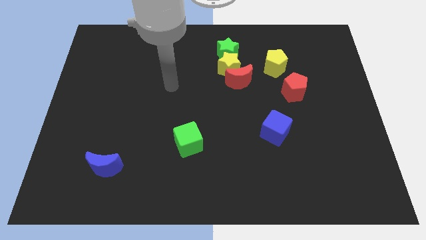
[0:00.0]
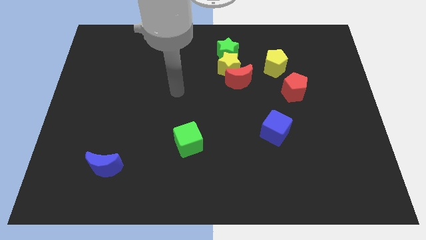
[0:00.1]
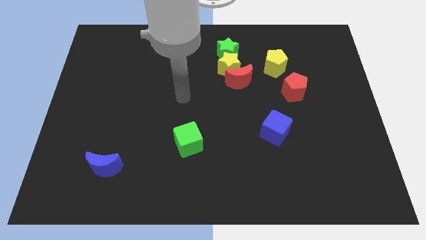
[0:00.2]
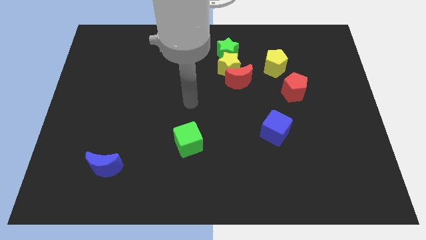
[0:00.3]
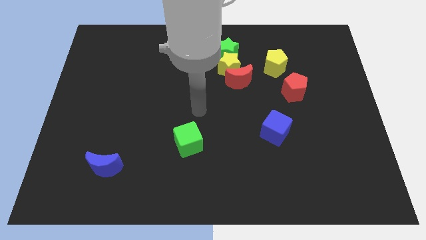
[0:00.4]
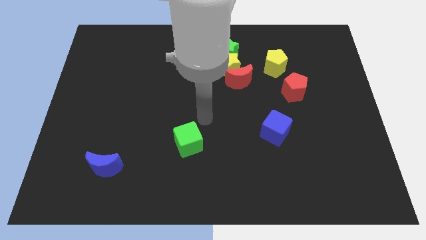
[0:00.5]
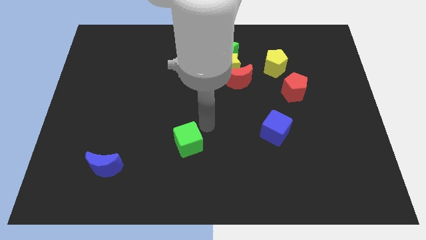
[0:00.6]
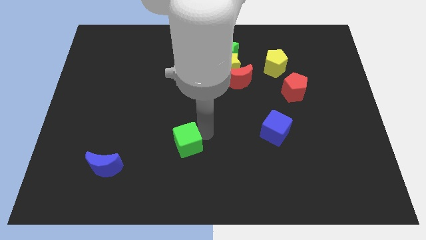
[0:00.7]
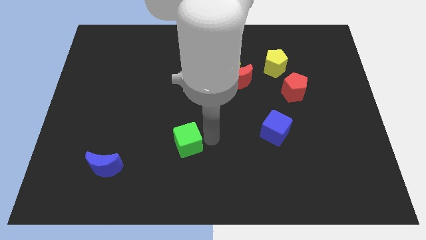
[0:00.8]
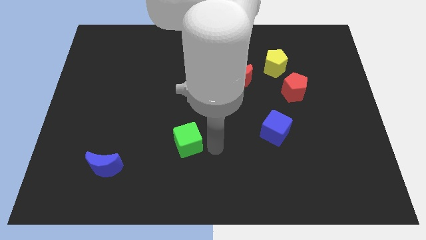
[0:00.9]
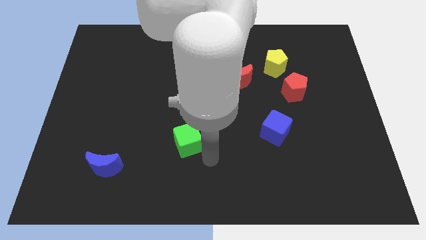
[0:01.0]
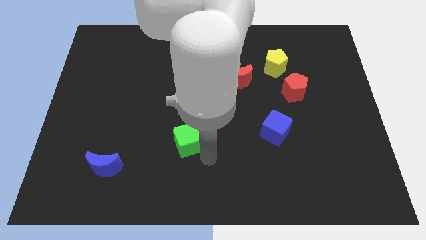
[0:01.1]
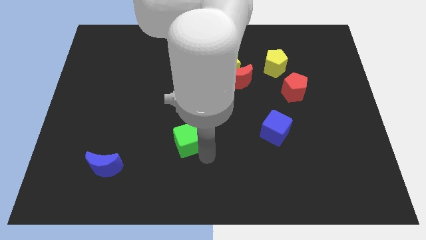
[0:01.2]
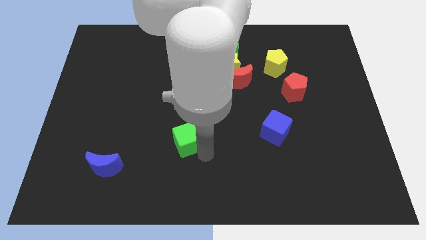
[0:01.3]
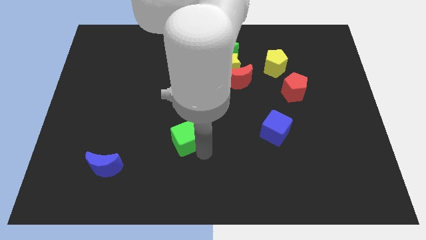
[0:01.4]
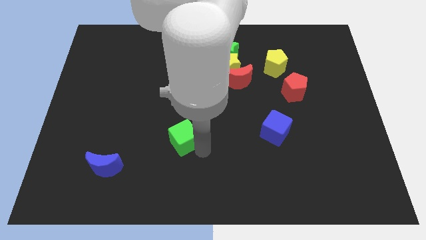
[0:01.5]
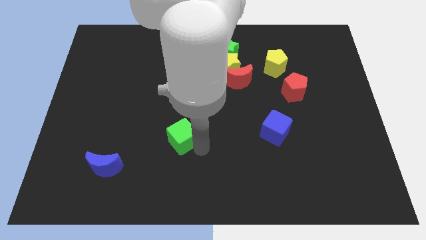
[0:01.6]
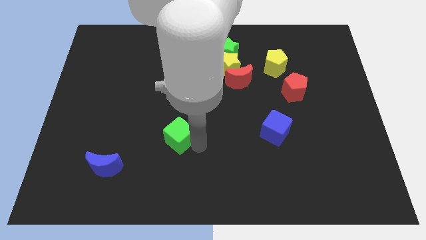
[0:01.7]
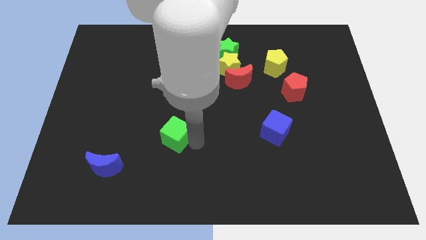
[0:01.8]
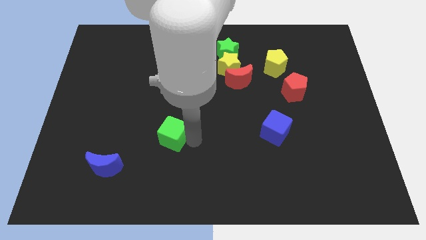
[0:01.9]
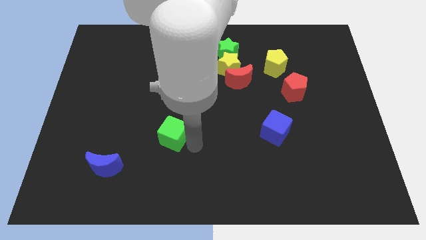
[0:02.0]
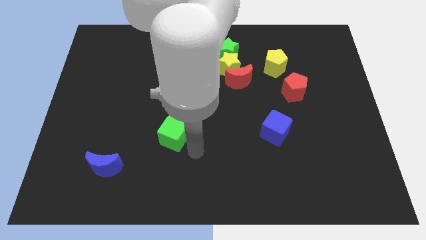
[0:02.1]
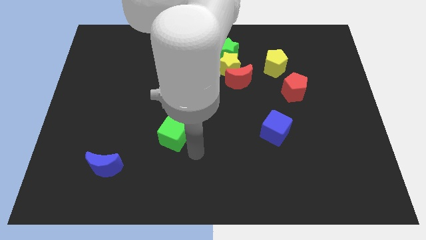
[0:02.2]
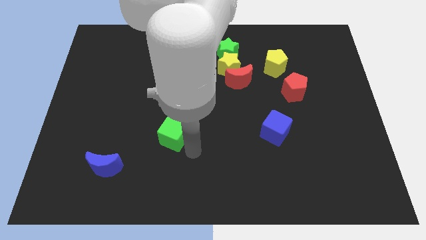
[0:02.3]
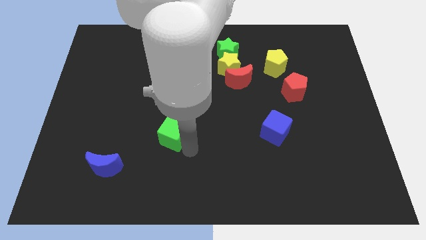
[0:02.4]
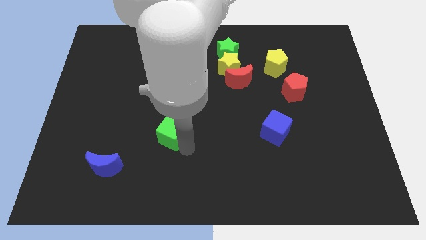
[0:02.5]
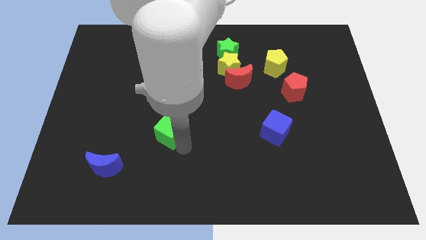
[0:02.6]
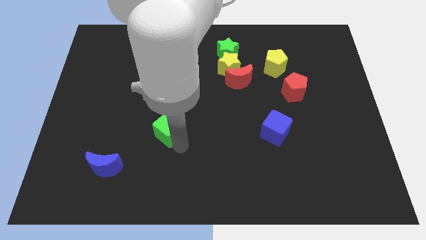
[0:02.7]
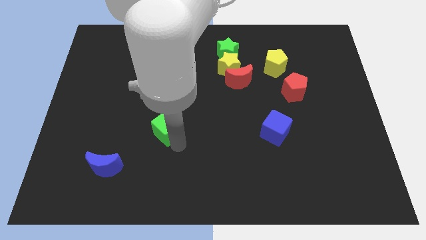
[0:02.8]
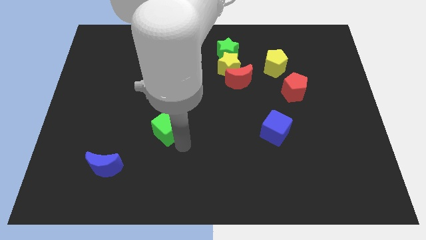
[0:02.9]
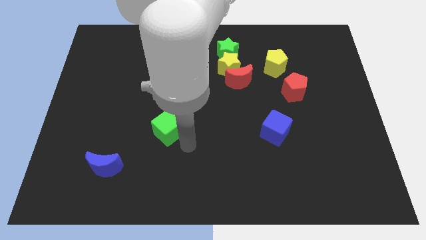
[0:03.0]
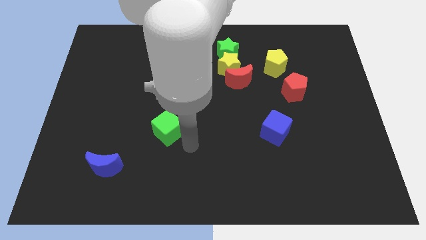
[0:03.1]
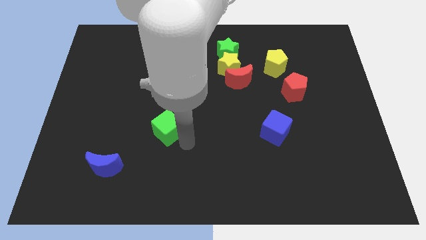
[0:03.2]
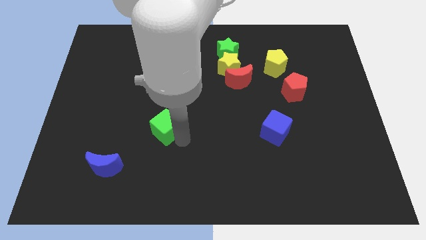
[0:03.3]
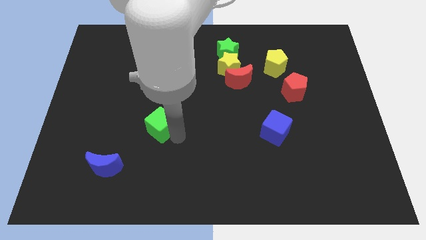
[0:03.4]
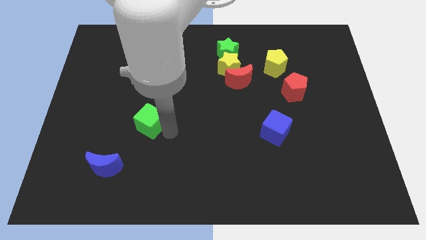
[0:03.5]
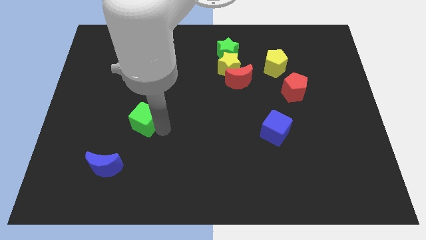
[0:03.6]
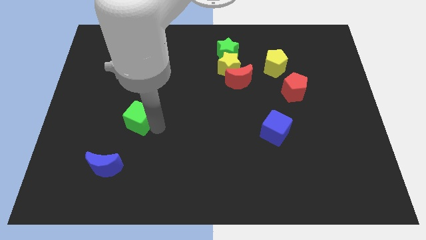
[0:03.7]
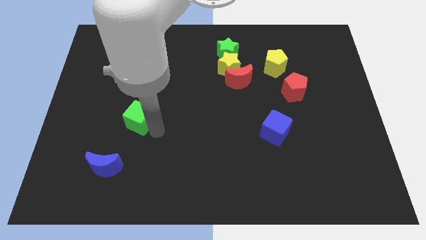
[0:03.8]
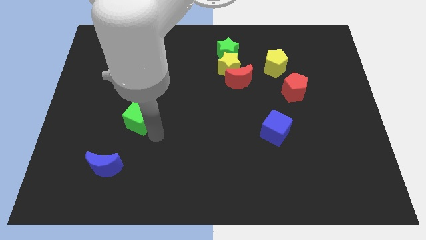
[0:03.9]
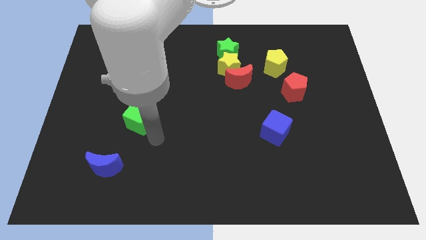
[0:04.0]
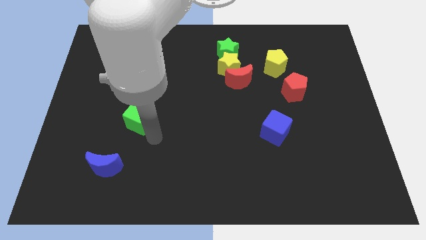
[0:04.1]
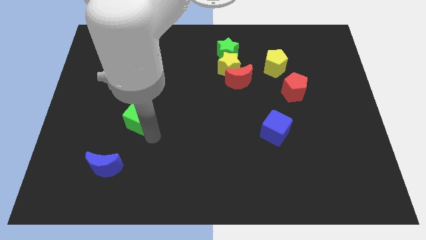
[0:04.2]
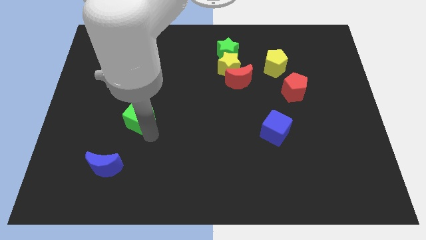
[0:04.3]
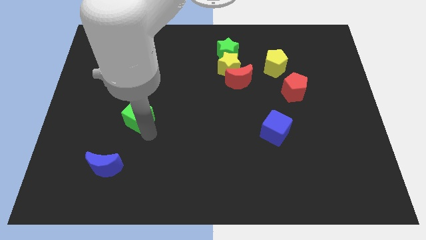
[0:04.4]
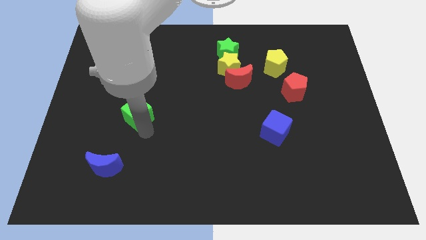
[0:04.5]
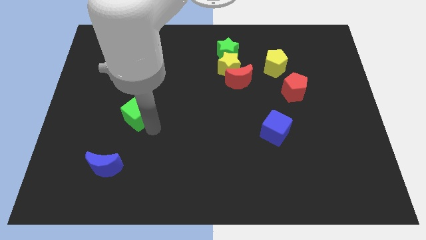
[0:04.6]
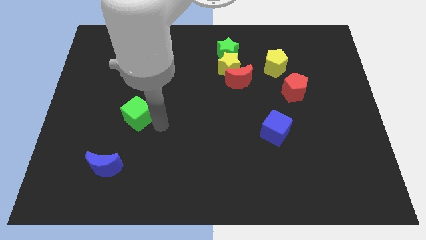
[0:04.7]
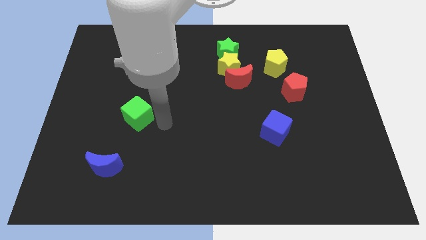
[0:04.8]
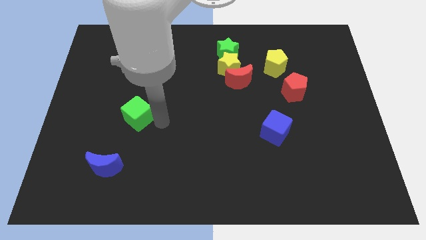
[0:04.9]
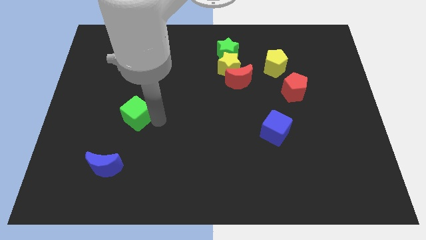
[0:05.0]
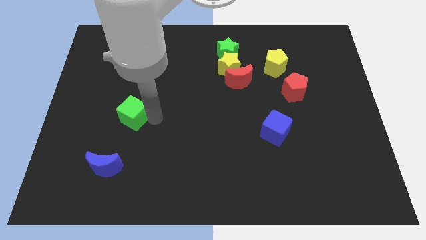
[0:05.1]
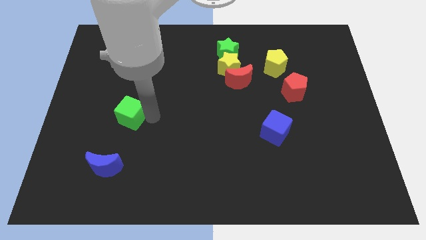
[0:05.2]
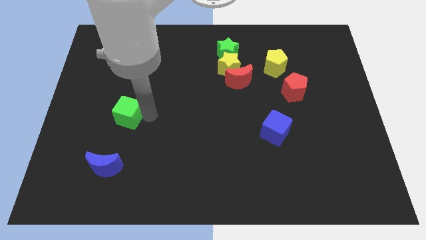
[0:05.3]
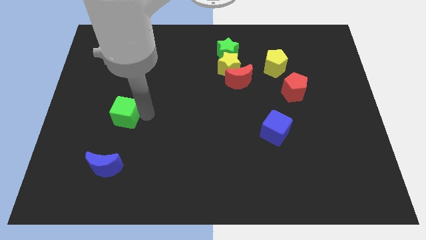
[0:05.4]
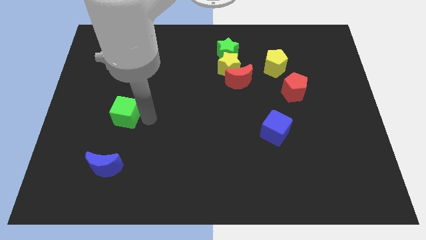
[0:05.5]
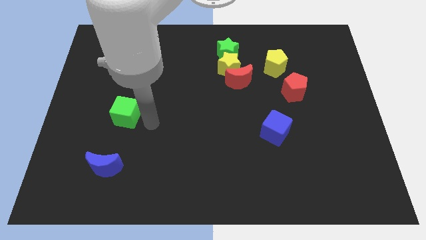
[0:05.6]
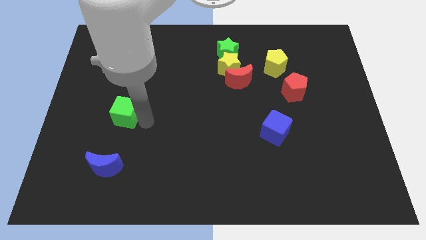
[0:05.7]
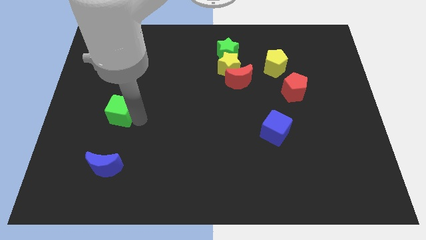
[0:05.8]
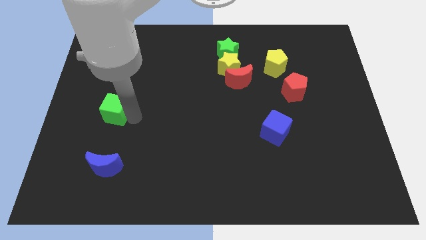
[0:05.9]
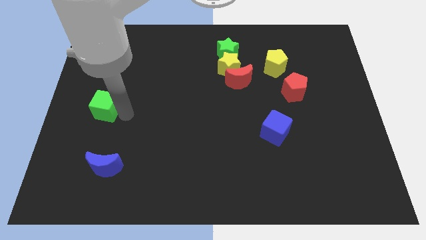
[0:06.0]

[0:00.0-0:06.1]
put the green cube to the center left
